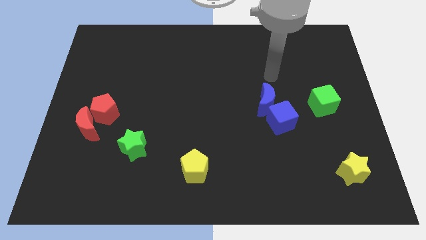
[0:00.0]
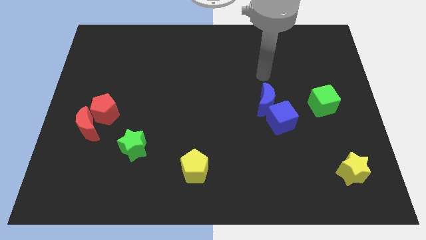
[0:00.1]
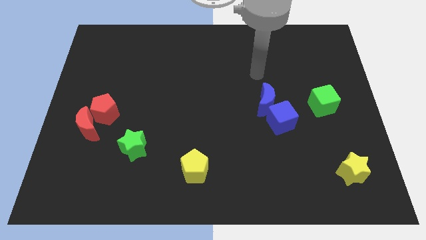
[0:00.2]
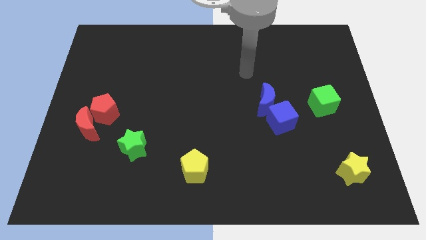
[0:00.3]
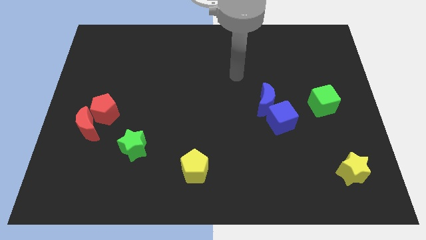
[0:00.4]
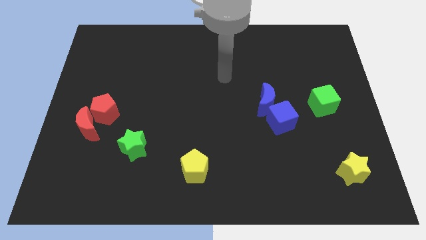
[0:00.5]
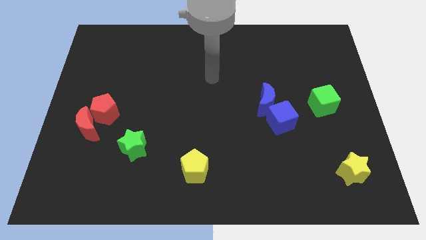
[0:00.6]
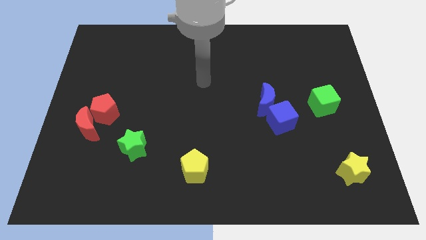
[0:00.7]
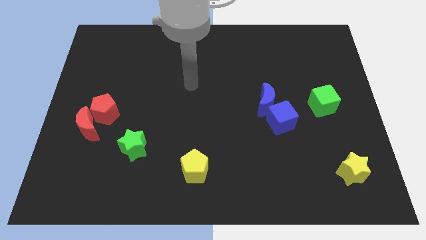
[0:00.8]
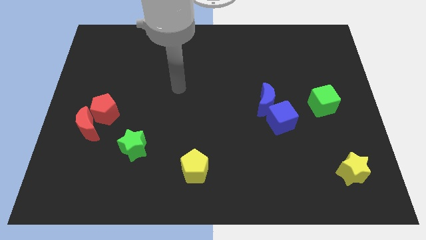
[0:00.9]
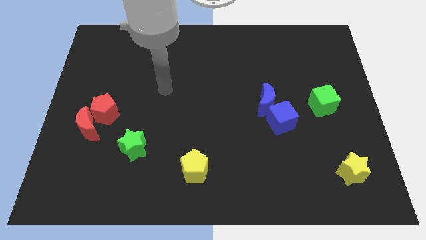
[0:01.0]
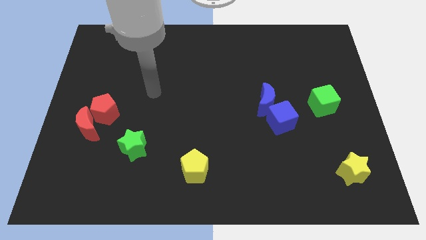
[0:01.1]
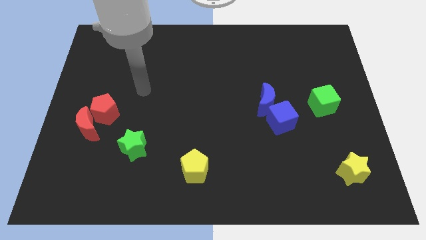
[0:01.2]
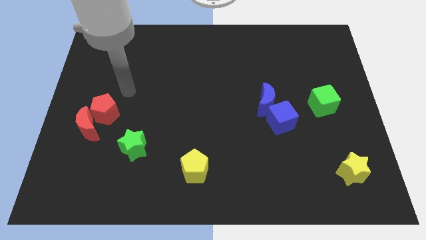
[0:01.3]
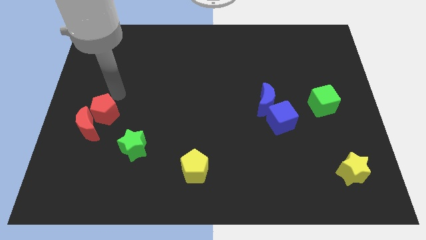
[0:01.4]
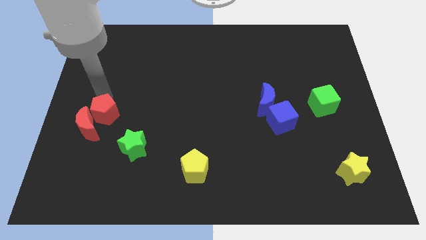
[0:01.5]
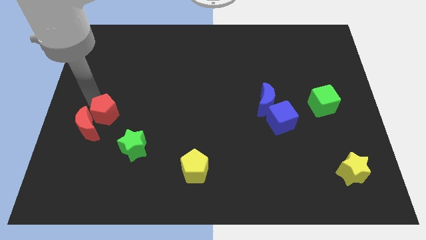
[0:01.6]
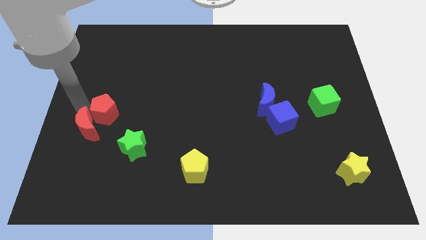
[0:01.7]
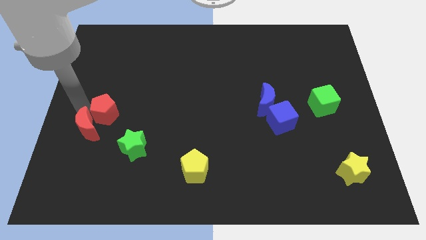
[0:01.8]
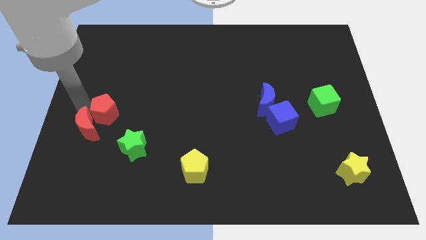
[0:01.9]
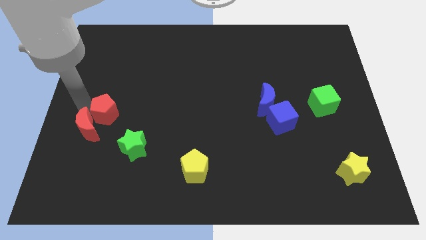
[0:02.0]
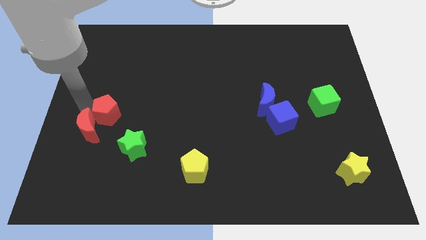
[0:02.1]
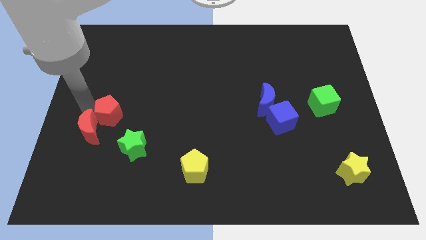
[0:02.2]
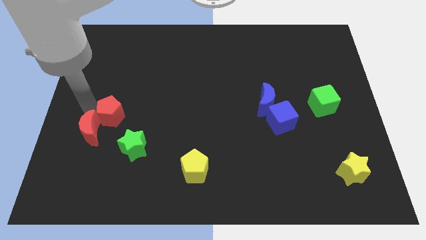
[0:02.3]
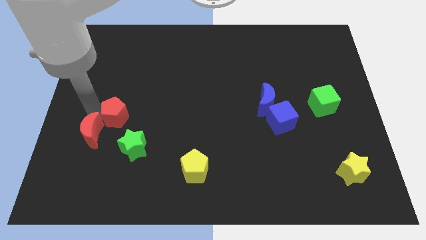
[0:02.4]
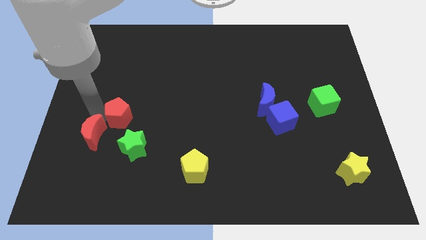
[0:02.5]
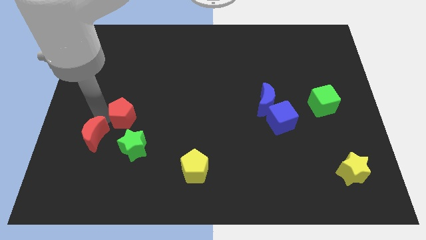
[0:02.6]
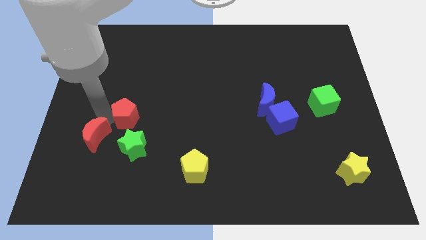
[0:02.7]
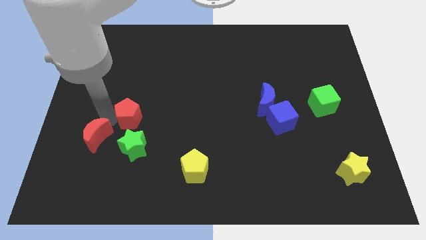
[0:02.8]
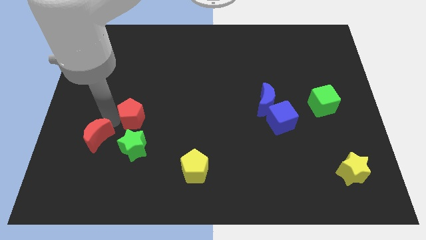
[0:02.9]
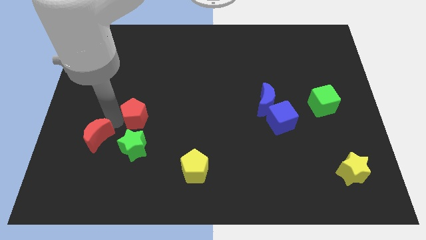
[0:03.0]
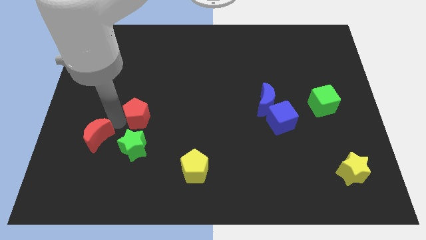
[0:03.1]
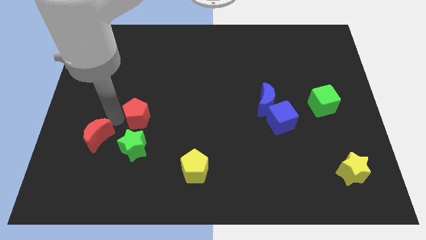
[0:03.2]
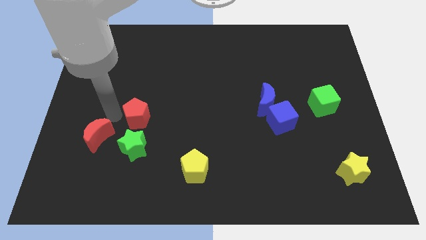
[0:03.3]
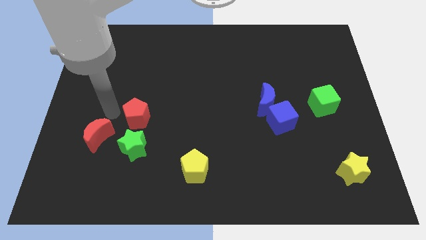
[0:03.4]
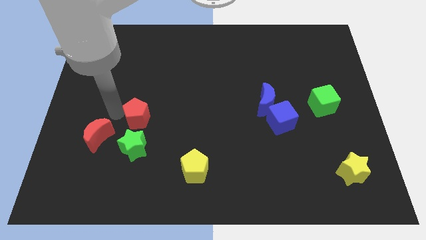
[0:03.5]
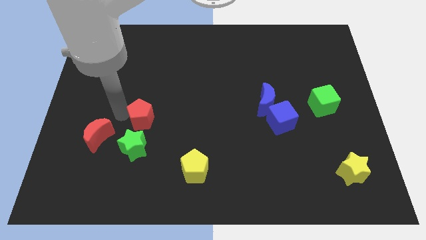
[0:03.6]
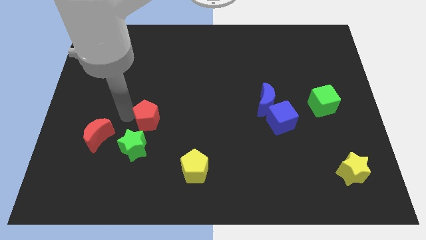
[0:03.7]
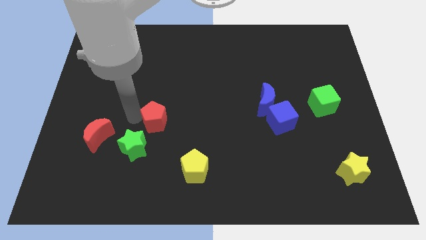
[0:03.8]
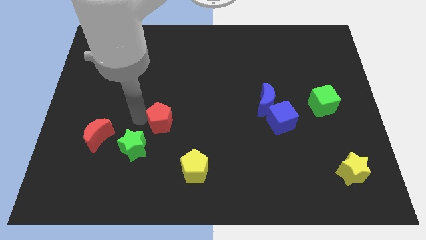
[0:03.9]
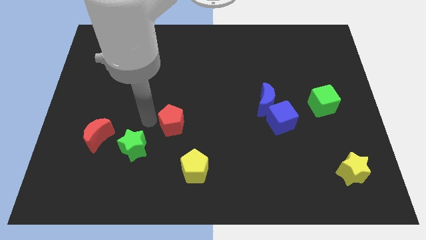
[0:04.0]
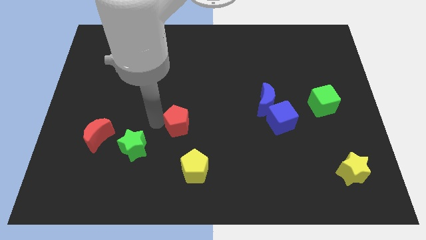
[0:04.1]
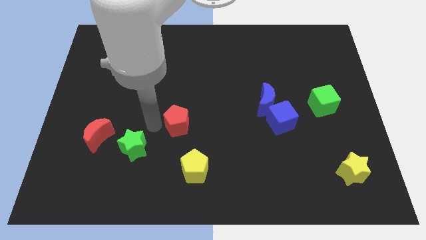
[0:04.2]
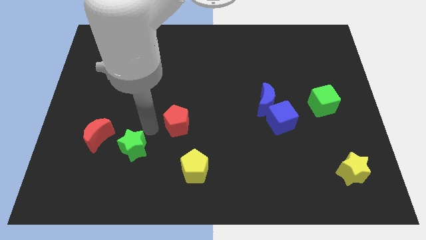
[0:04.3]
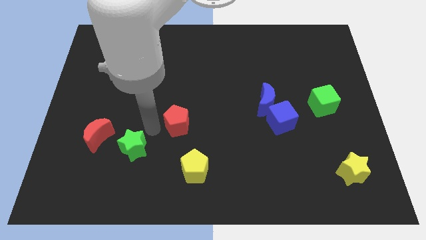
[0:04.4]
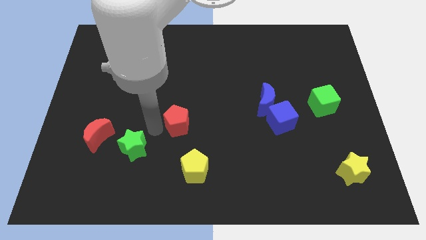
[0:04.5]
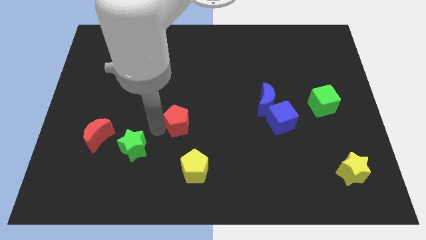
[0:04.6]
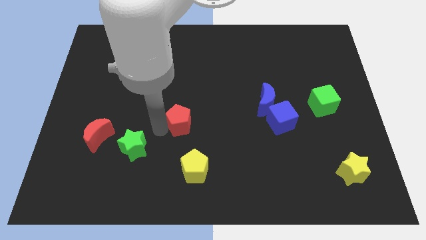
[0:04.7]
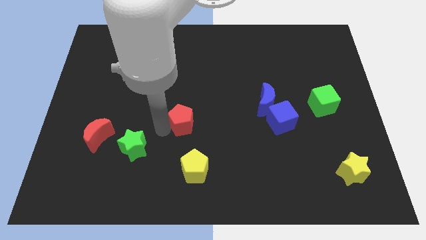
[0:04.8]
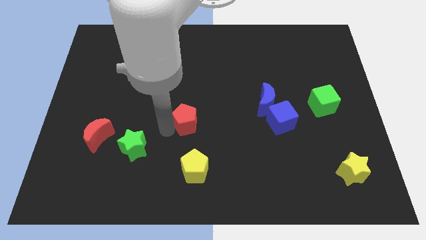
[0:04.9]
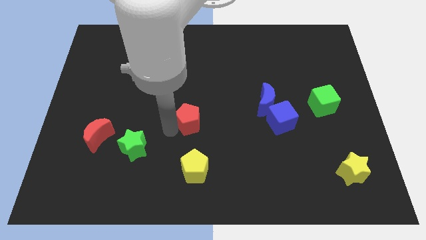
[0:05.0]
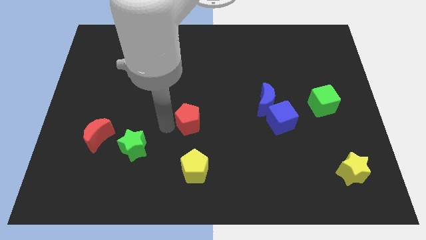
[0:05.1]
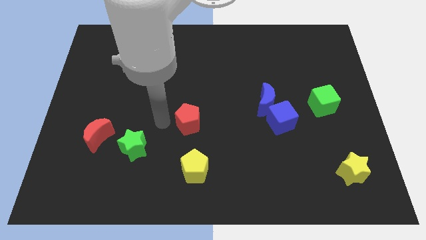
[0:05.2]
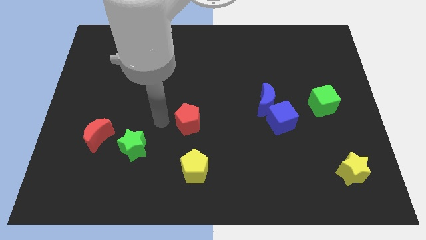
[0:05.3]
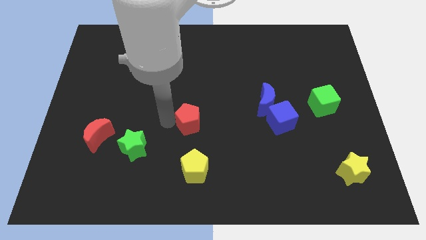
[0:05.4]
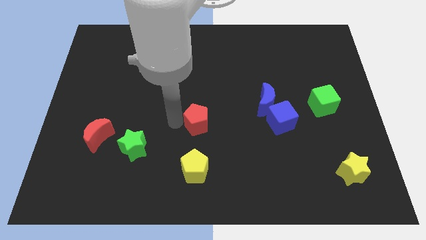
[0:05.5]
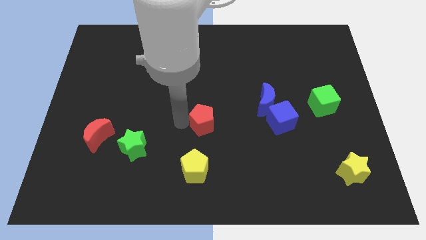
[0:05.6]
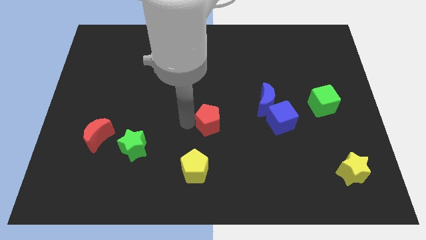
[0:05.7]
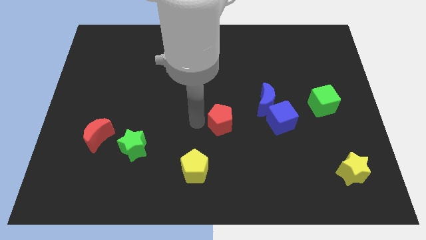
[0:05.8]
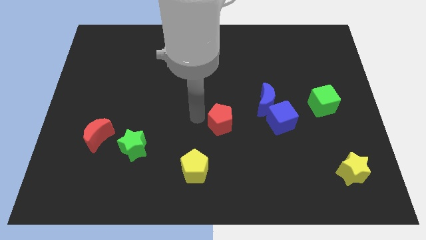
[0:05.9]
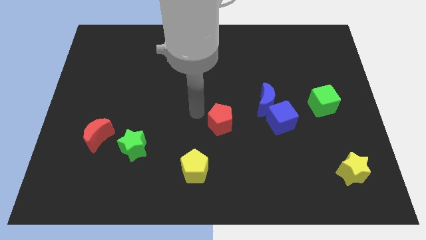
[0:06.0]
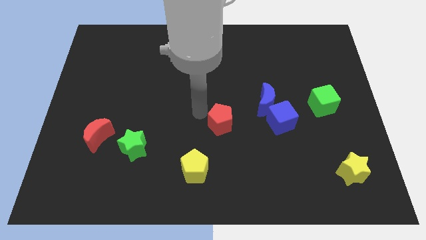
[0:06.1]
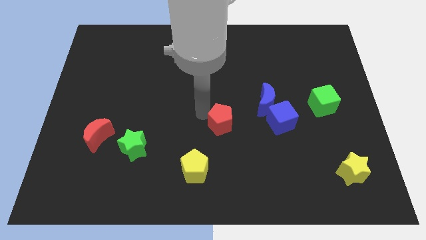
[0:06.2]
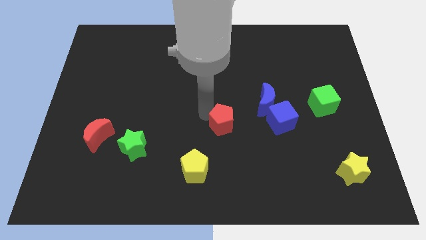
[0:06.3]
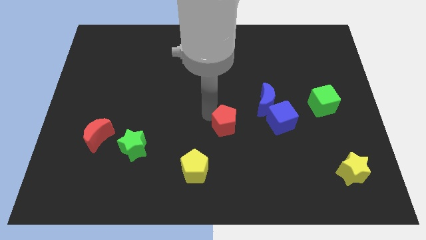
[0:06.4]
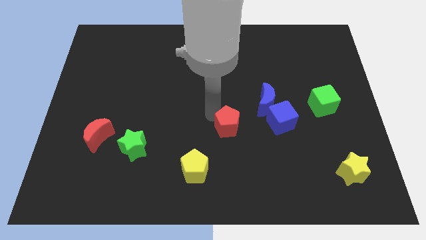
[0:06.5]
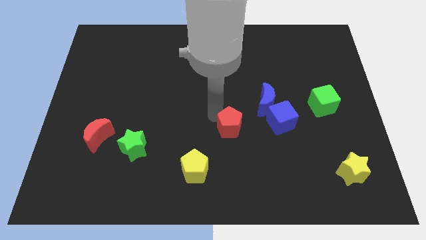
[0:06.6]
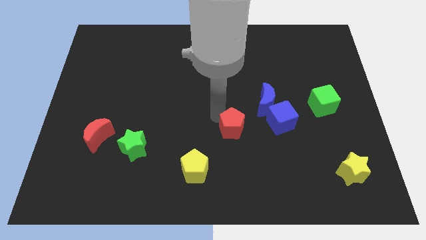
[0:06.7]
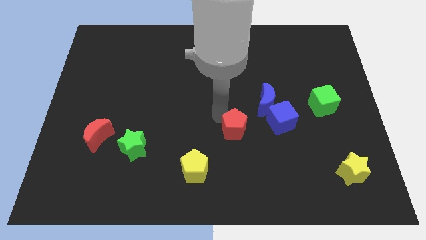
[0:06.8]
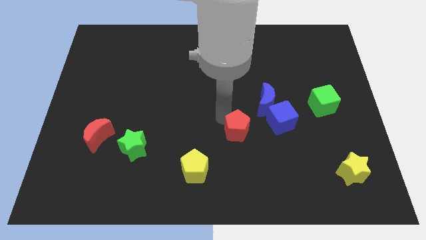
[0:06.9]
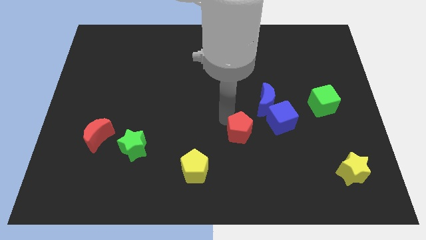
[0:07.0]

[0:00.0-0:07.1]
push the red pentagon to the bottom left side of the blue cube

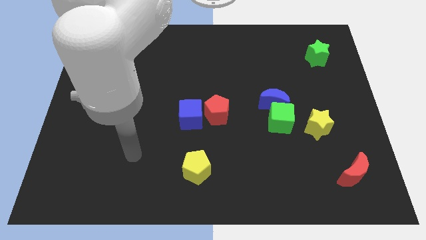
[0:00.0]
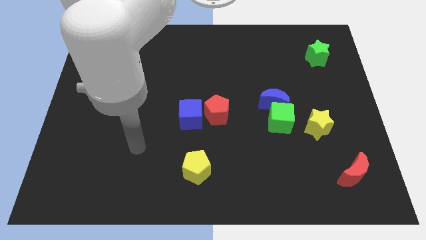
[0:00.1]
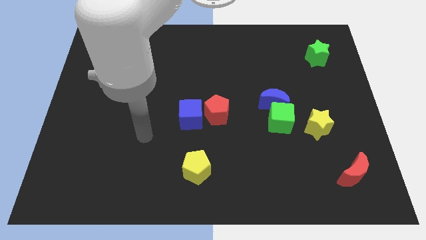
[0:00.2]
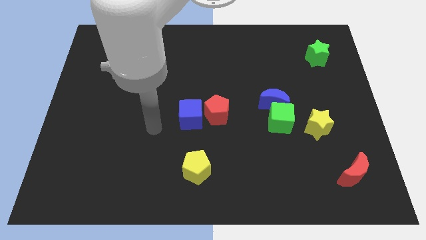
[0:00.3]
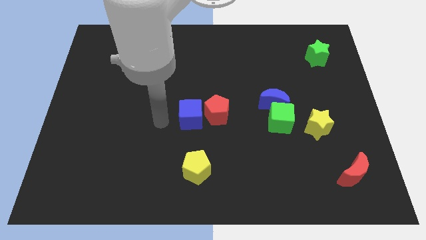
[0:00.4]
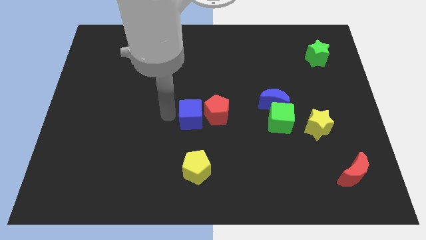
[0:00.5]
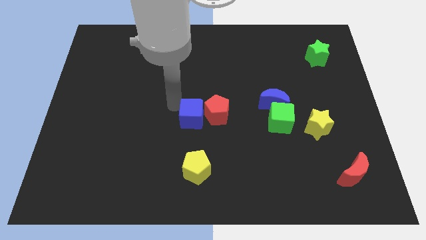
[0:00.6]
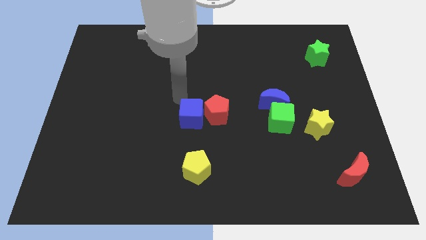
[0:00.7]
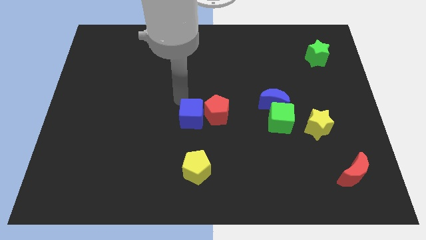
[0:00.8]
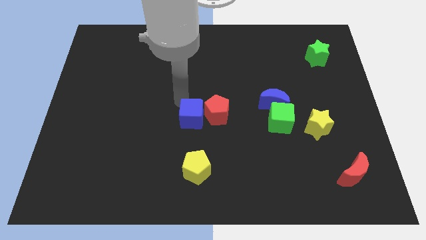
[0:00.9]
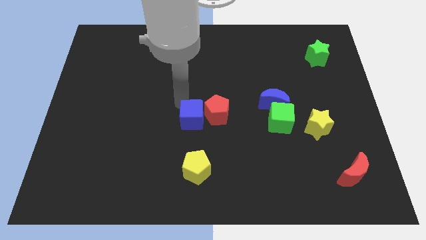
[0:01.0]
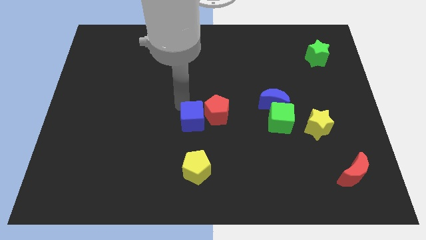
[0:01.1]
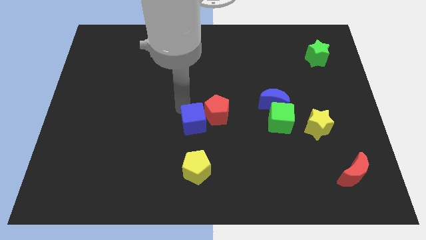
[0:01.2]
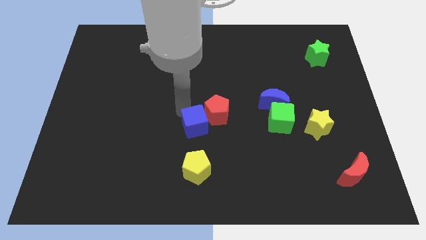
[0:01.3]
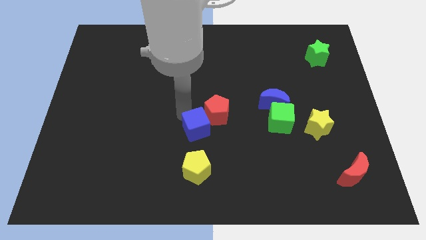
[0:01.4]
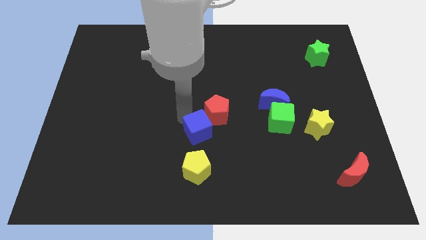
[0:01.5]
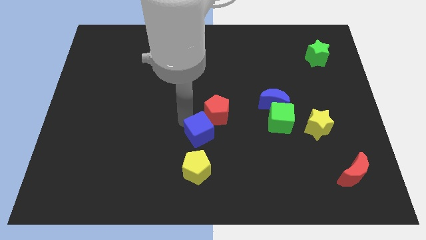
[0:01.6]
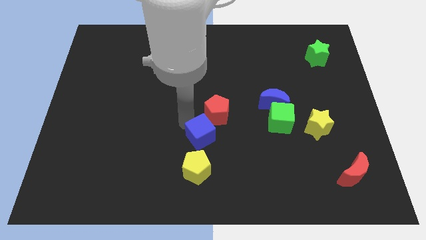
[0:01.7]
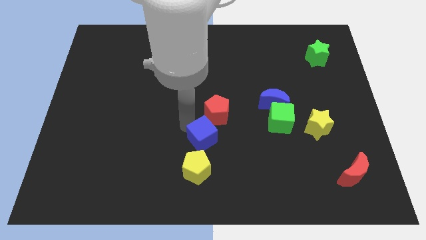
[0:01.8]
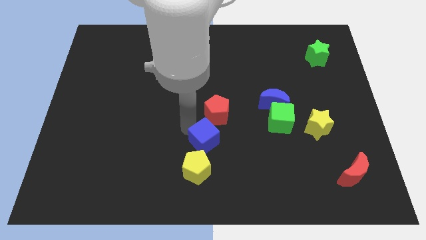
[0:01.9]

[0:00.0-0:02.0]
slide the blue cube to the top right side of the yellow pentagon
